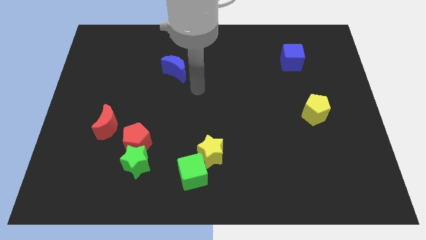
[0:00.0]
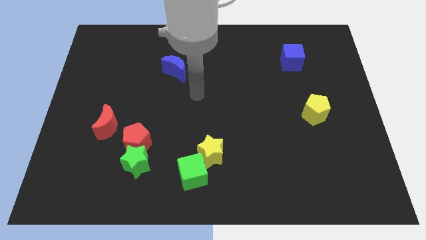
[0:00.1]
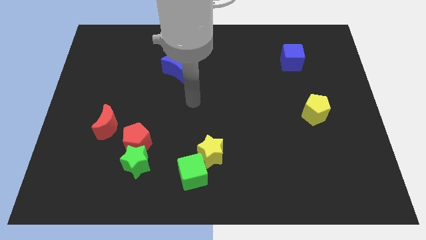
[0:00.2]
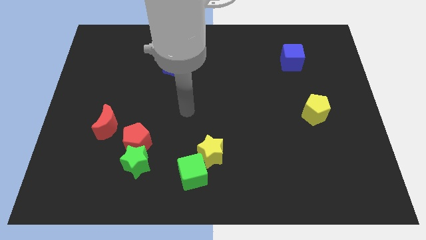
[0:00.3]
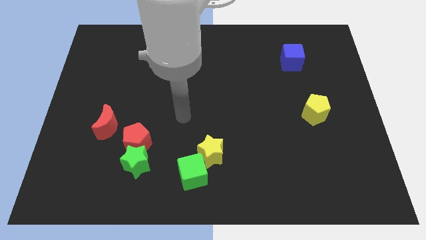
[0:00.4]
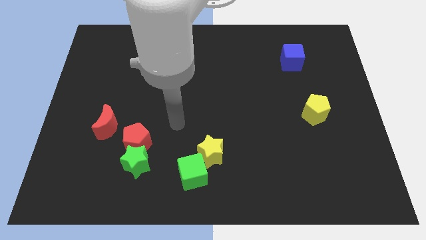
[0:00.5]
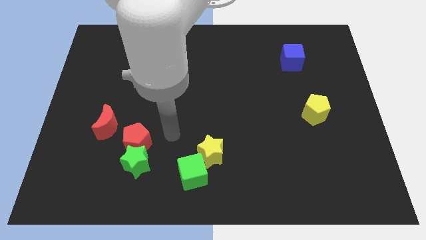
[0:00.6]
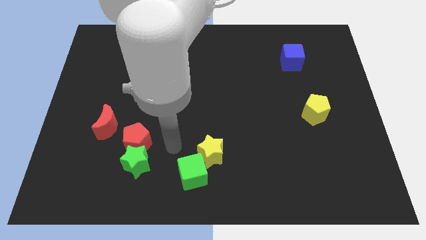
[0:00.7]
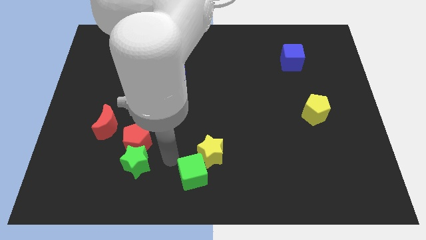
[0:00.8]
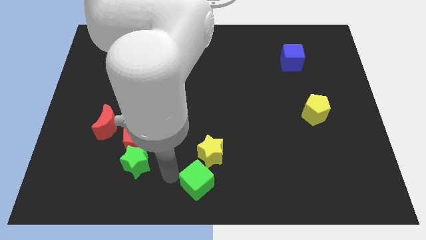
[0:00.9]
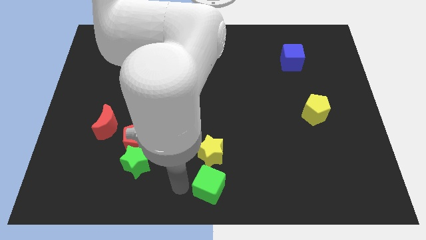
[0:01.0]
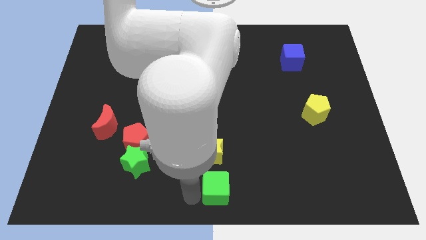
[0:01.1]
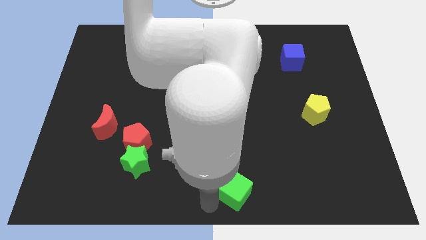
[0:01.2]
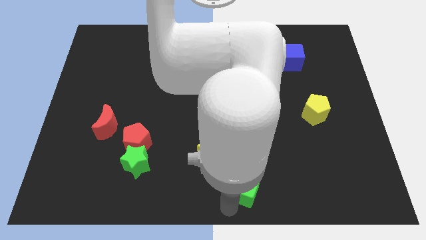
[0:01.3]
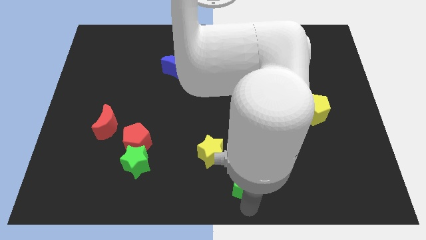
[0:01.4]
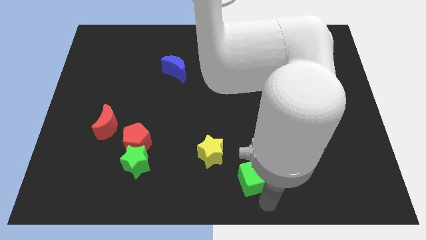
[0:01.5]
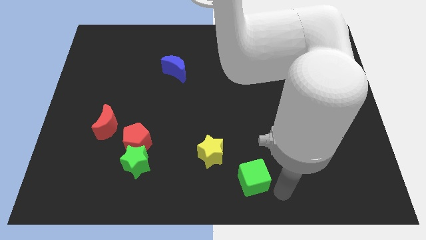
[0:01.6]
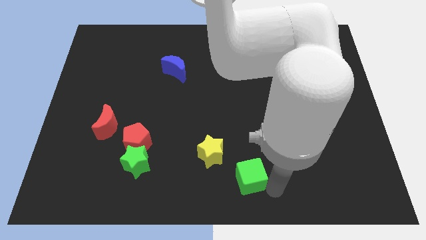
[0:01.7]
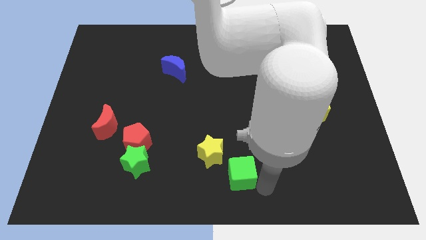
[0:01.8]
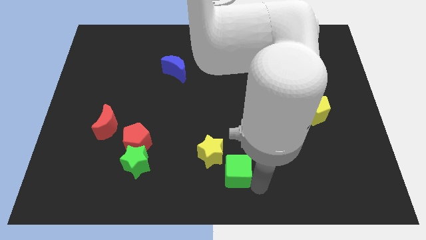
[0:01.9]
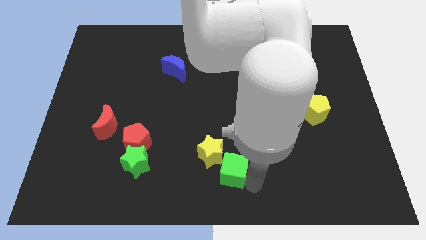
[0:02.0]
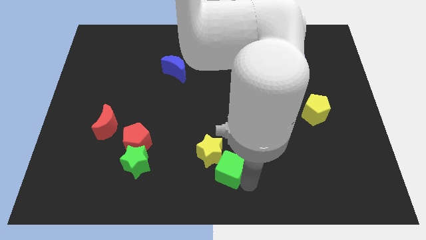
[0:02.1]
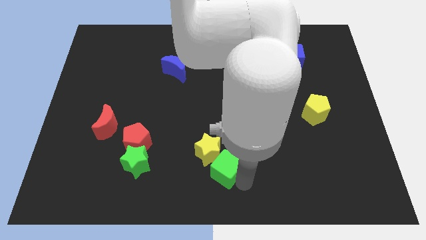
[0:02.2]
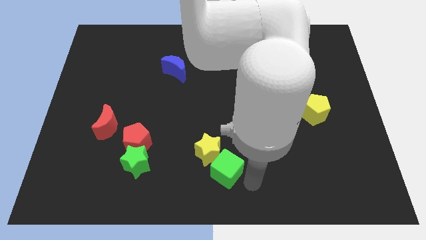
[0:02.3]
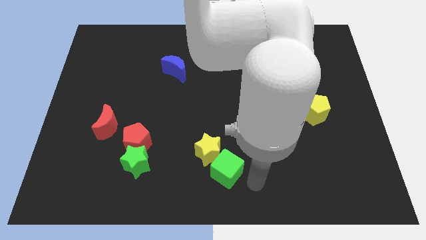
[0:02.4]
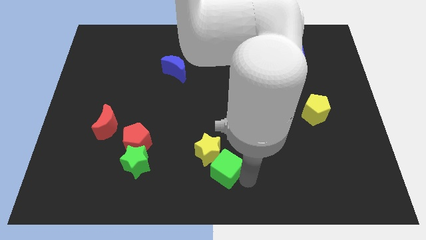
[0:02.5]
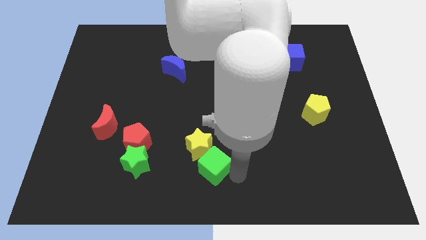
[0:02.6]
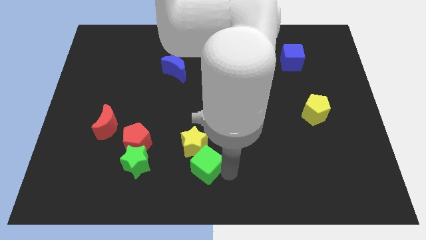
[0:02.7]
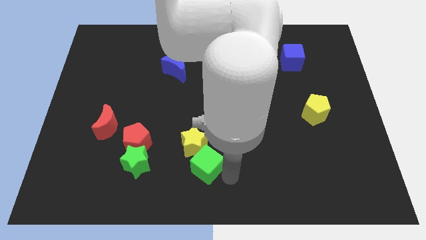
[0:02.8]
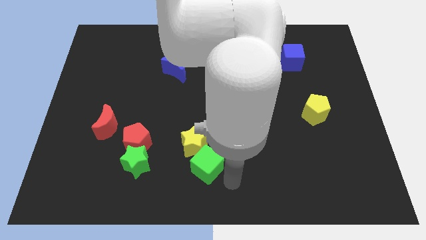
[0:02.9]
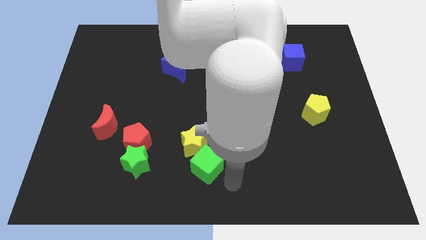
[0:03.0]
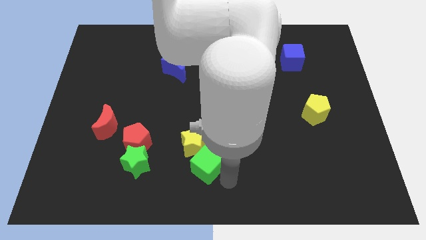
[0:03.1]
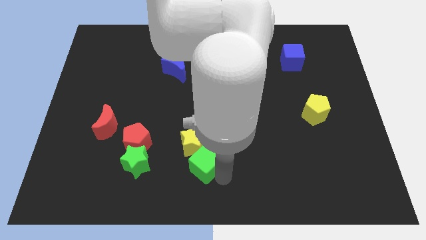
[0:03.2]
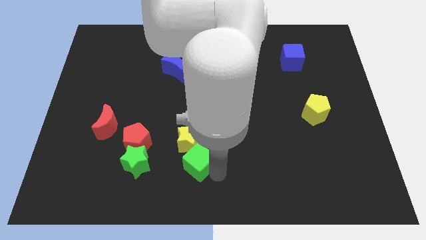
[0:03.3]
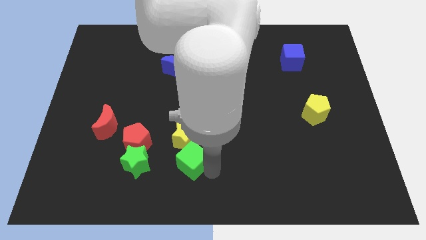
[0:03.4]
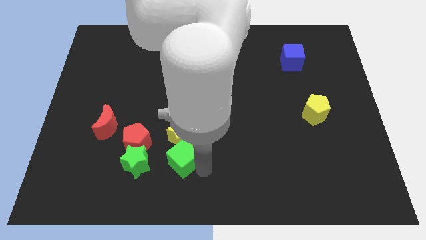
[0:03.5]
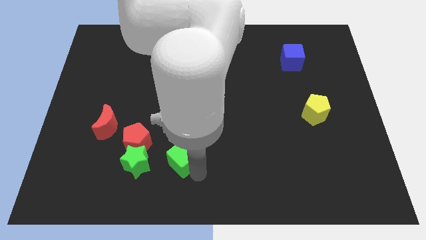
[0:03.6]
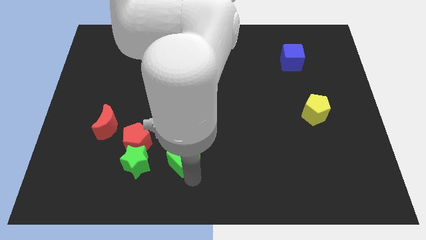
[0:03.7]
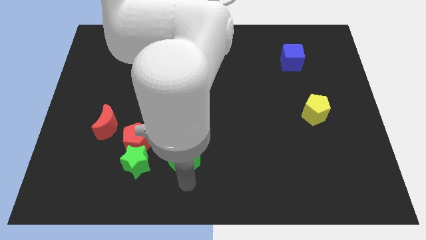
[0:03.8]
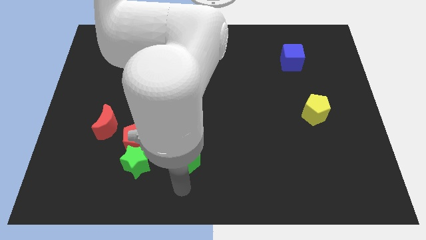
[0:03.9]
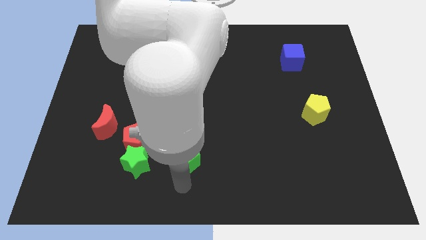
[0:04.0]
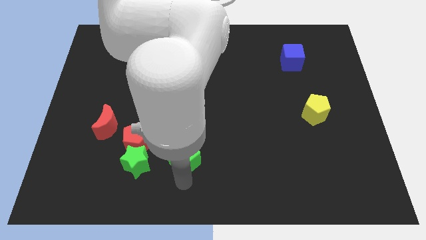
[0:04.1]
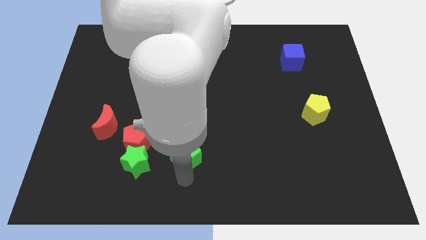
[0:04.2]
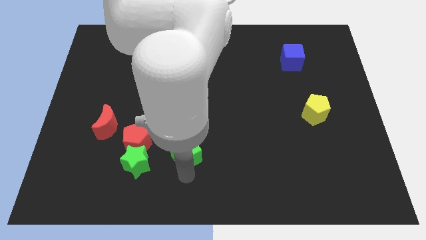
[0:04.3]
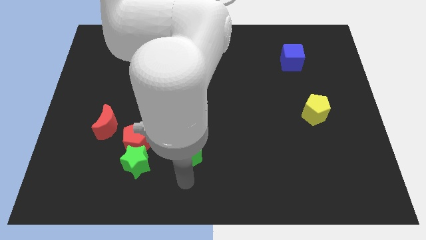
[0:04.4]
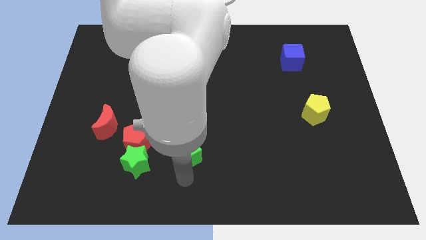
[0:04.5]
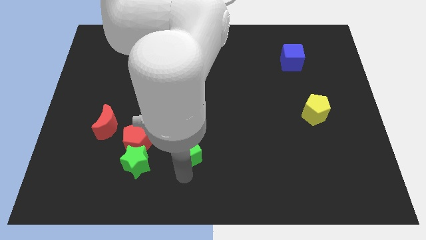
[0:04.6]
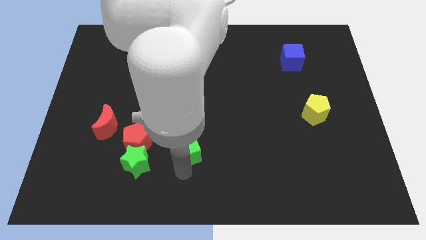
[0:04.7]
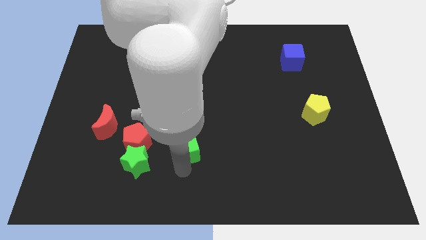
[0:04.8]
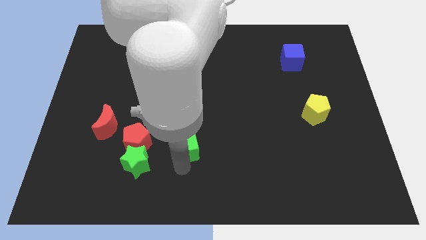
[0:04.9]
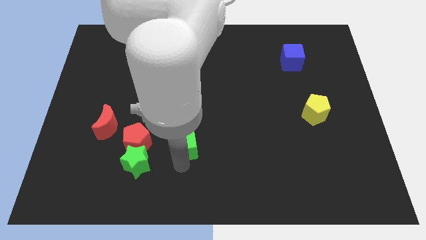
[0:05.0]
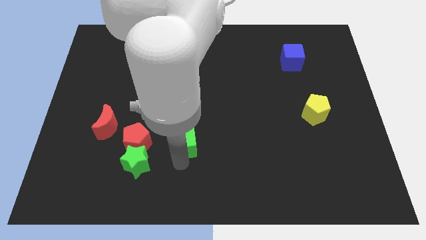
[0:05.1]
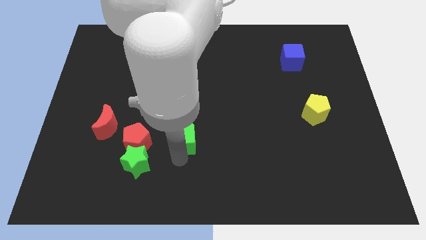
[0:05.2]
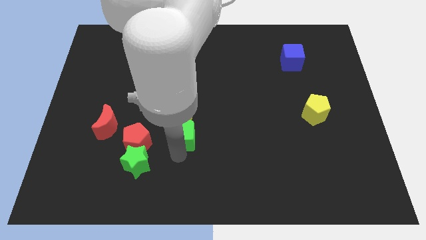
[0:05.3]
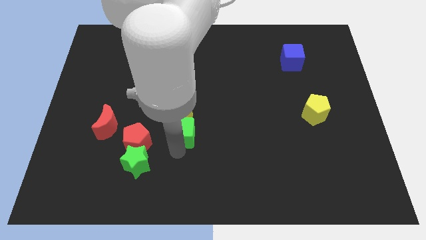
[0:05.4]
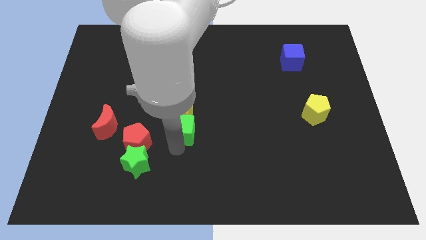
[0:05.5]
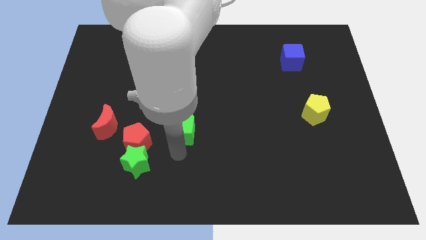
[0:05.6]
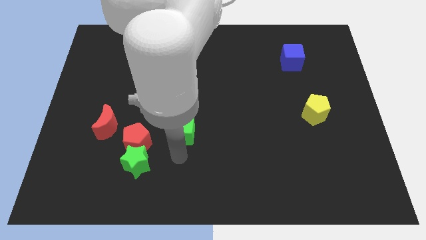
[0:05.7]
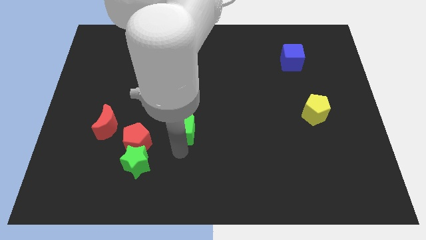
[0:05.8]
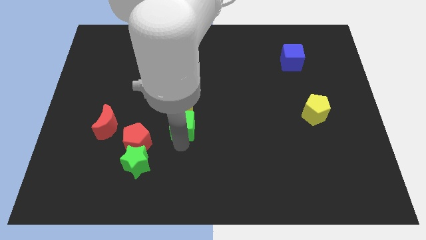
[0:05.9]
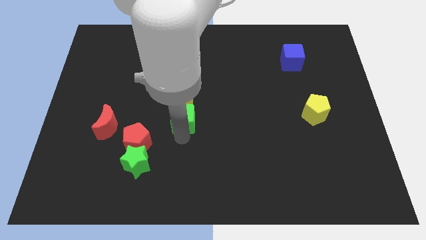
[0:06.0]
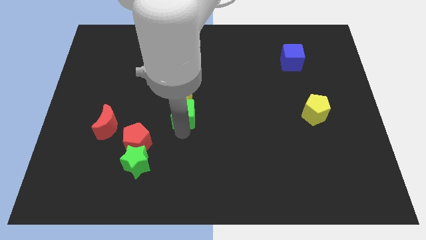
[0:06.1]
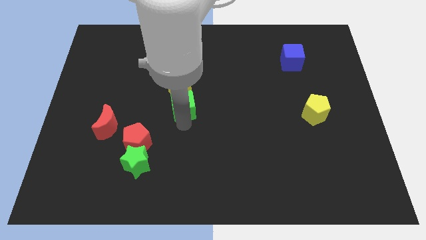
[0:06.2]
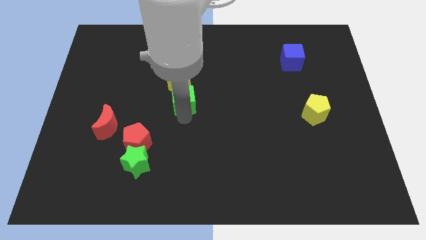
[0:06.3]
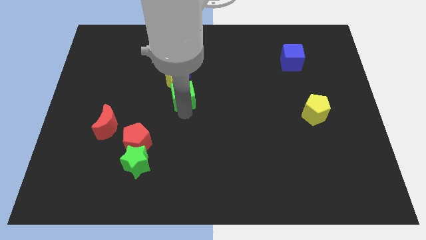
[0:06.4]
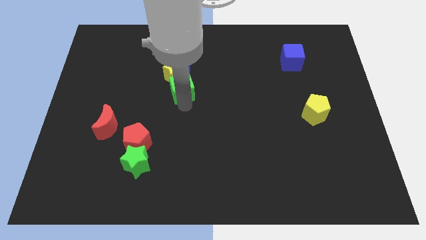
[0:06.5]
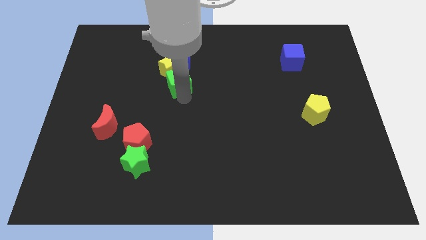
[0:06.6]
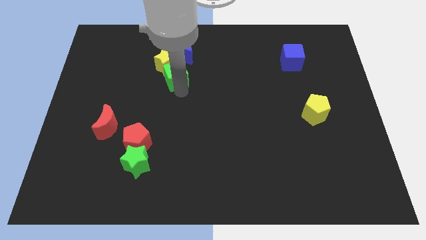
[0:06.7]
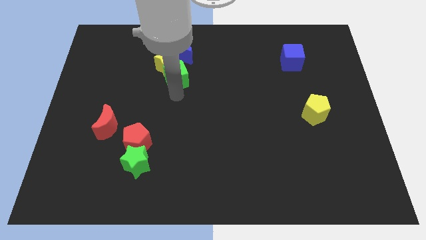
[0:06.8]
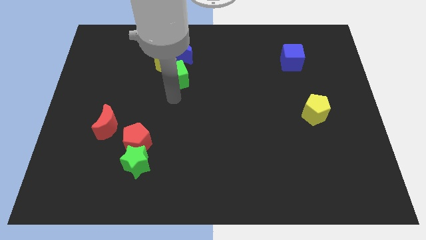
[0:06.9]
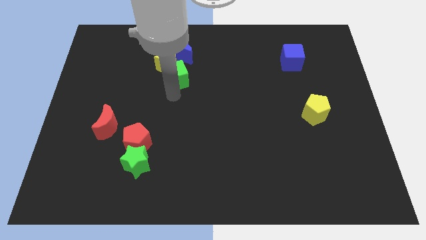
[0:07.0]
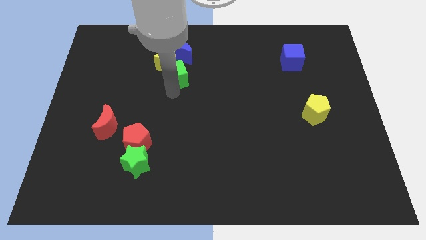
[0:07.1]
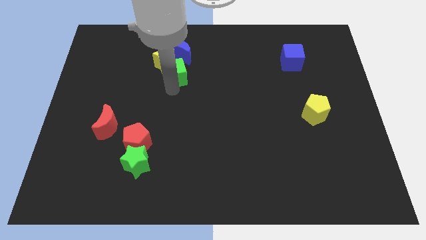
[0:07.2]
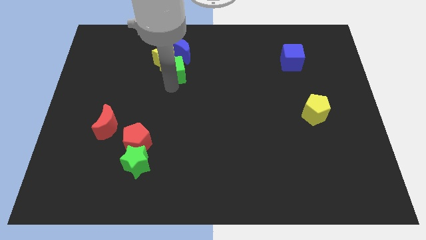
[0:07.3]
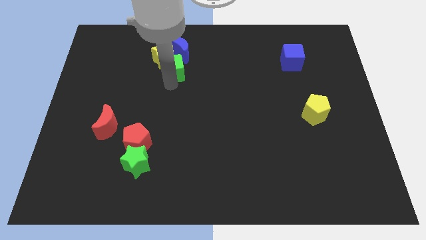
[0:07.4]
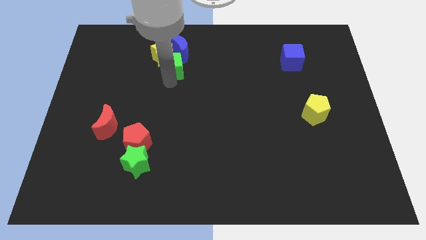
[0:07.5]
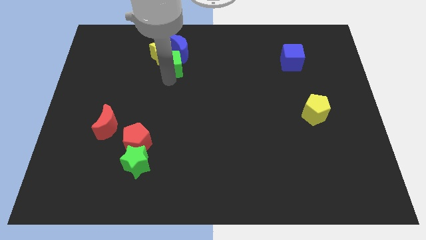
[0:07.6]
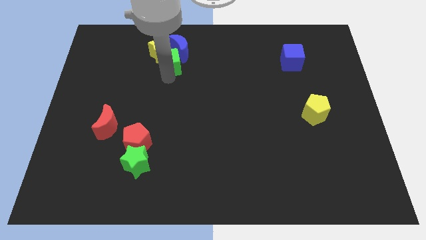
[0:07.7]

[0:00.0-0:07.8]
push the green cube to the blue moon
